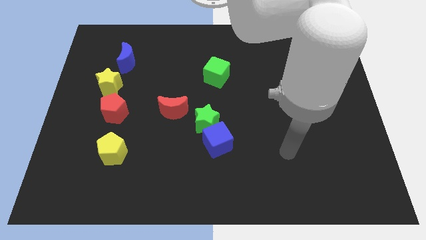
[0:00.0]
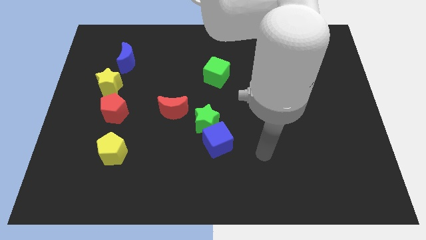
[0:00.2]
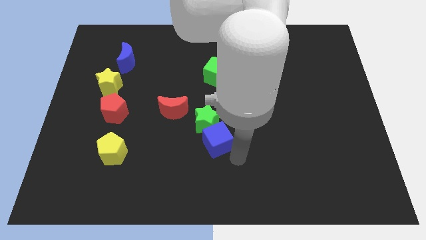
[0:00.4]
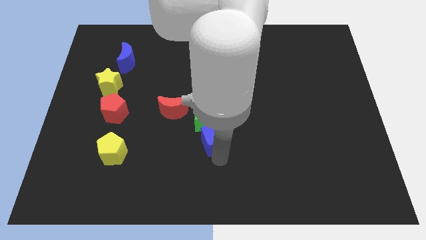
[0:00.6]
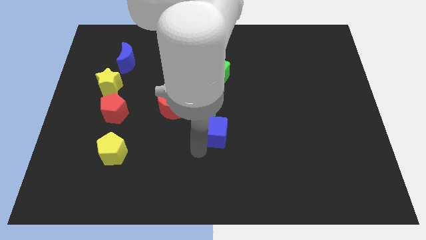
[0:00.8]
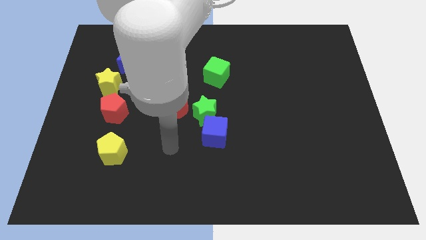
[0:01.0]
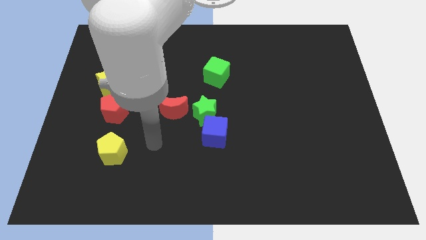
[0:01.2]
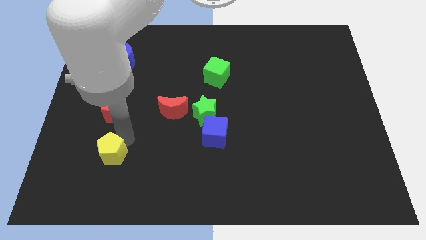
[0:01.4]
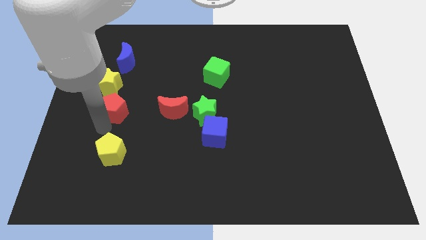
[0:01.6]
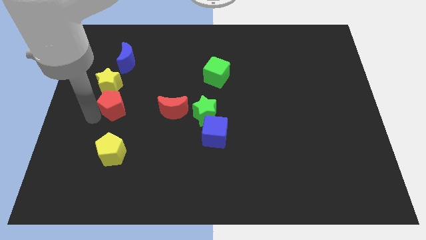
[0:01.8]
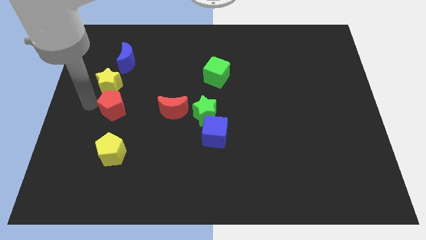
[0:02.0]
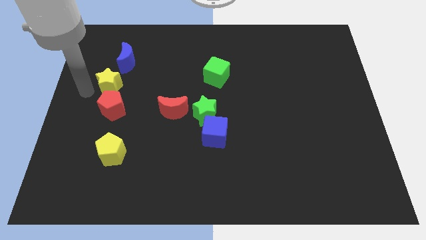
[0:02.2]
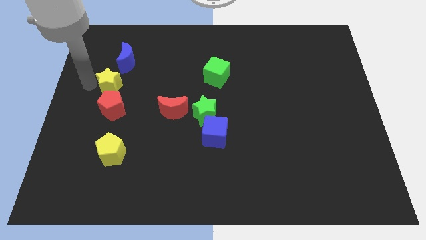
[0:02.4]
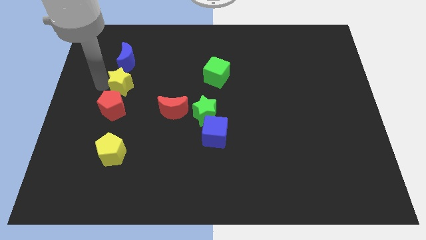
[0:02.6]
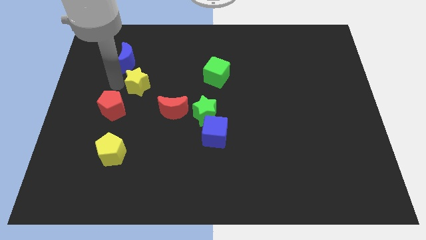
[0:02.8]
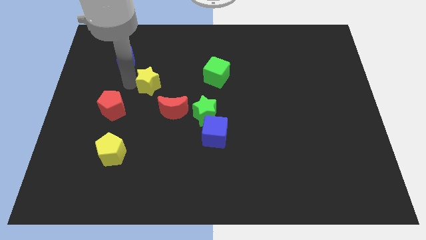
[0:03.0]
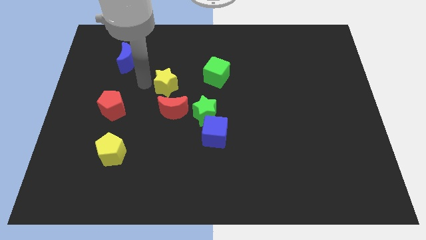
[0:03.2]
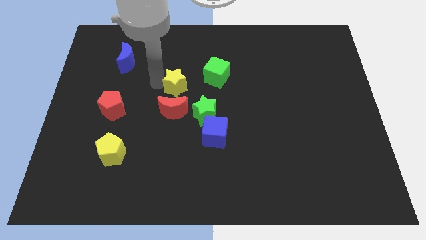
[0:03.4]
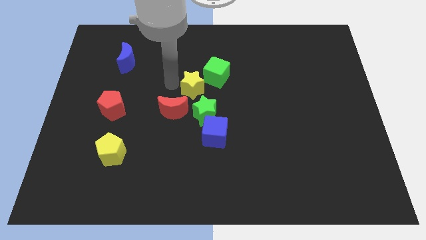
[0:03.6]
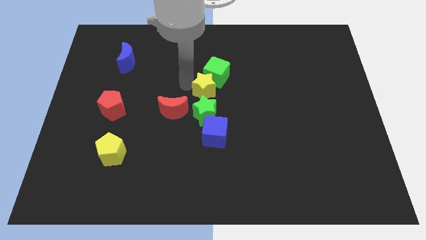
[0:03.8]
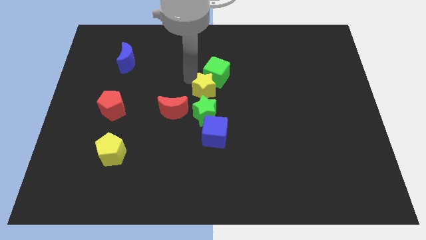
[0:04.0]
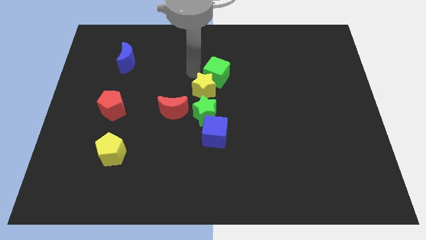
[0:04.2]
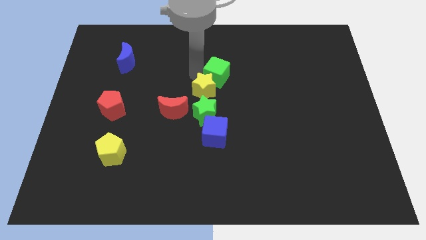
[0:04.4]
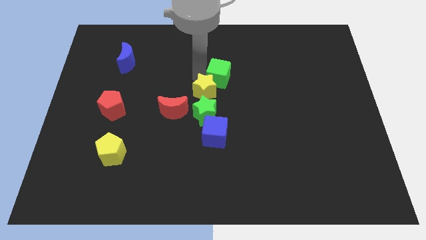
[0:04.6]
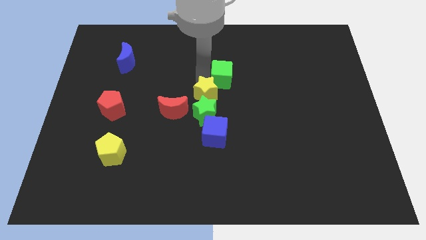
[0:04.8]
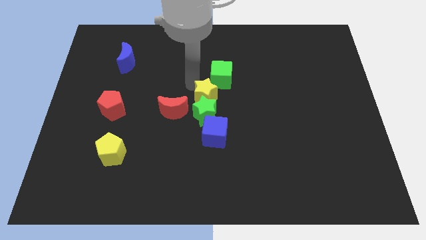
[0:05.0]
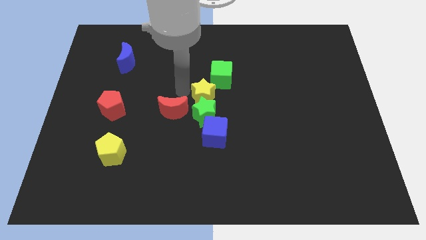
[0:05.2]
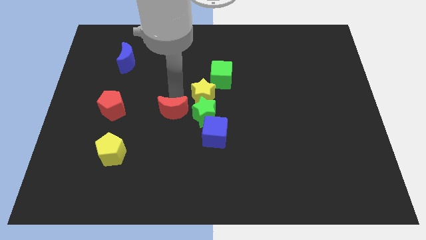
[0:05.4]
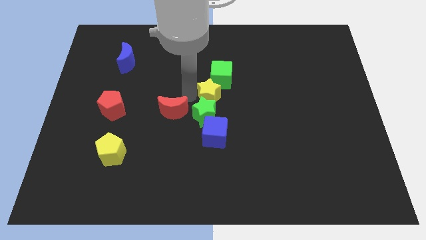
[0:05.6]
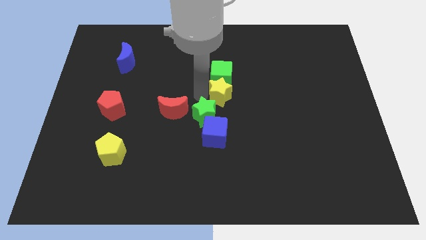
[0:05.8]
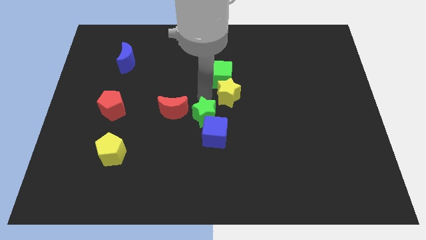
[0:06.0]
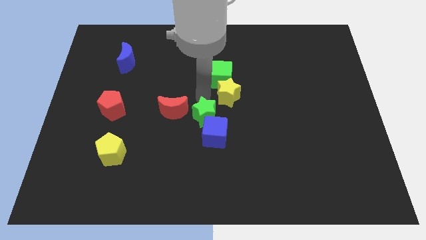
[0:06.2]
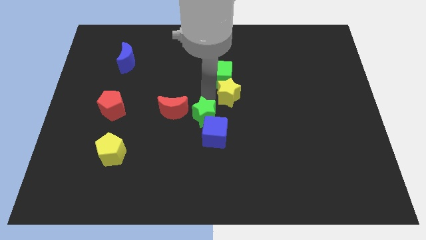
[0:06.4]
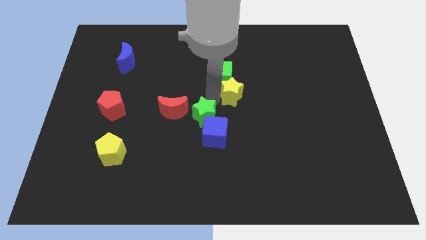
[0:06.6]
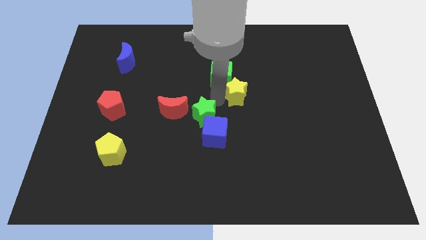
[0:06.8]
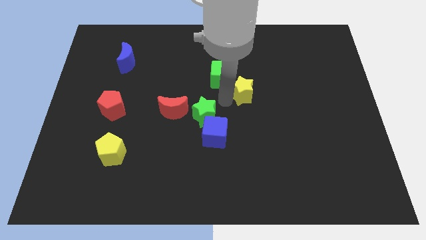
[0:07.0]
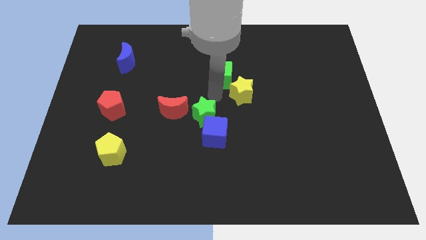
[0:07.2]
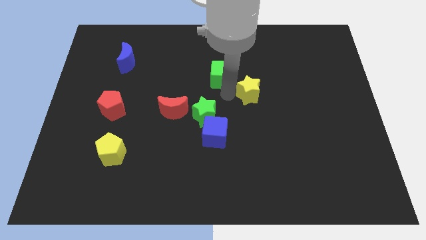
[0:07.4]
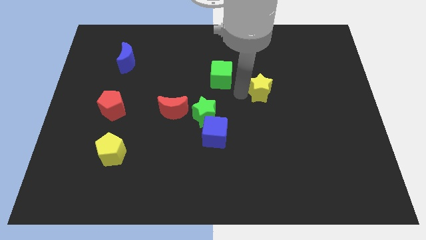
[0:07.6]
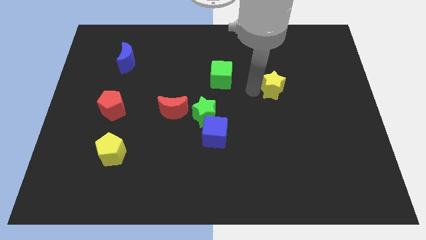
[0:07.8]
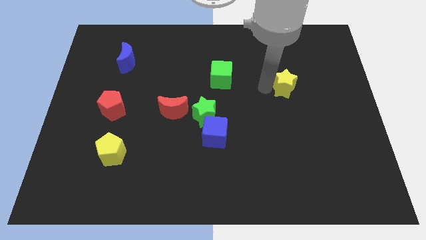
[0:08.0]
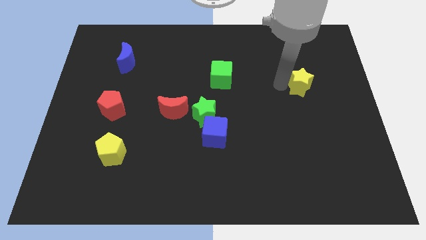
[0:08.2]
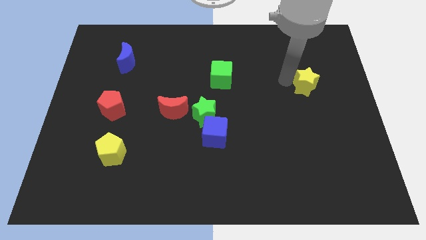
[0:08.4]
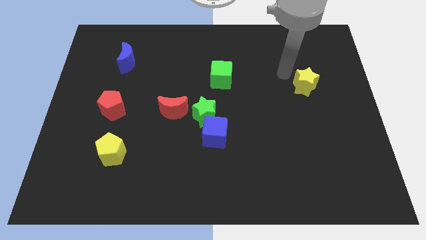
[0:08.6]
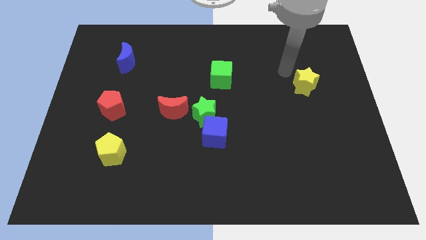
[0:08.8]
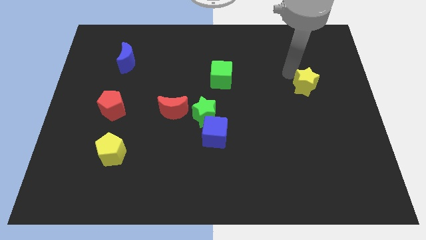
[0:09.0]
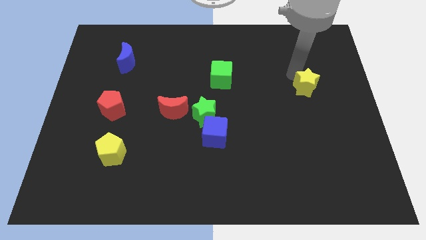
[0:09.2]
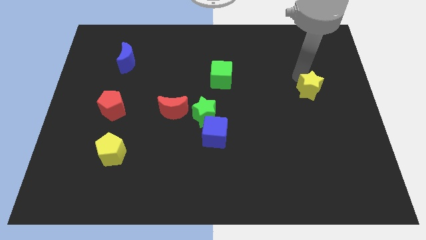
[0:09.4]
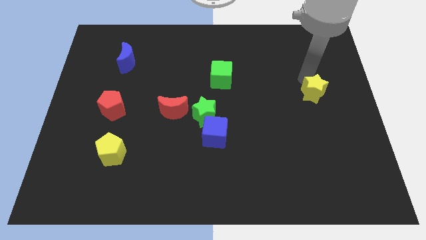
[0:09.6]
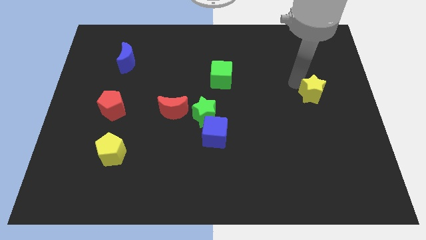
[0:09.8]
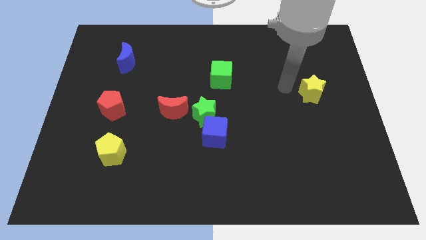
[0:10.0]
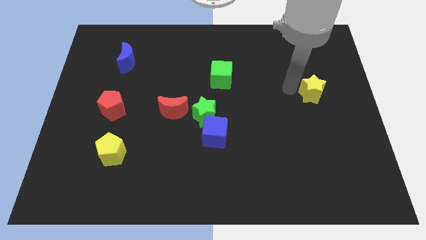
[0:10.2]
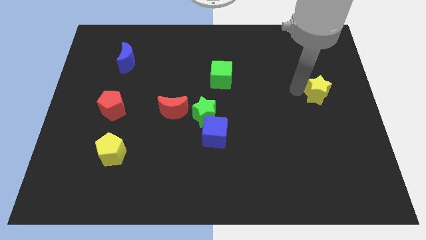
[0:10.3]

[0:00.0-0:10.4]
push the yellow star to the center right

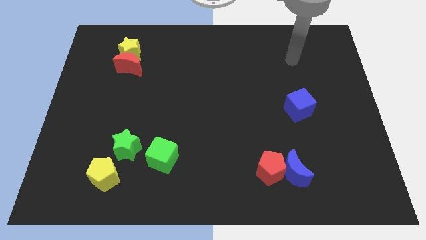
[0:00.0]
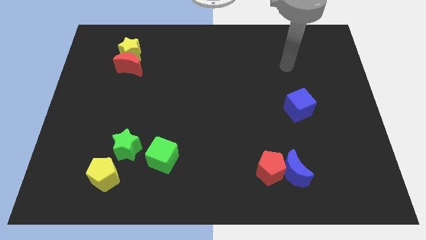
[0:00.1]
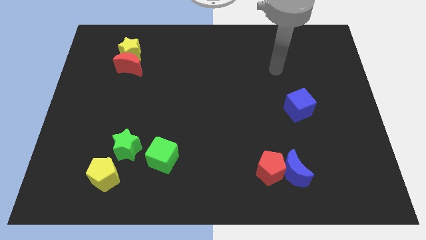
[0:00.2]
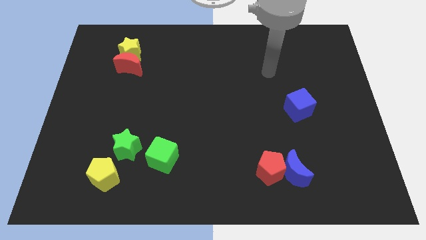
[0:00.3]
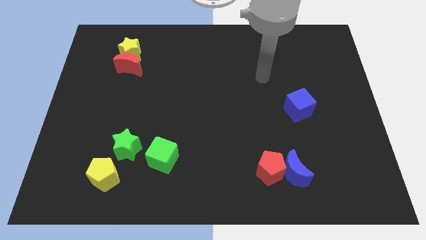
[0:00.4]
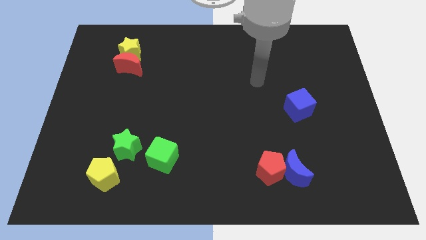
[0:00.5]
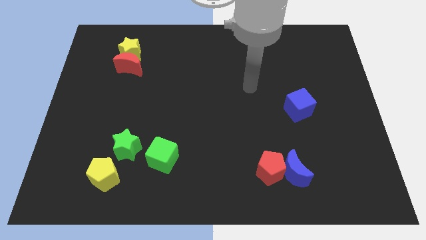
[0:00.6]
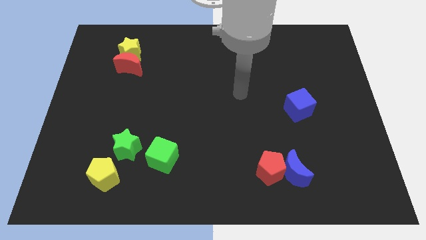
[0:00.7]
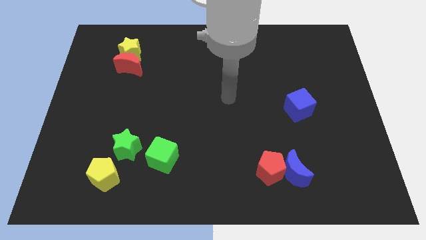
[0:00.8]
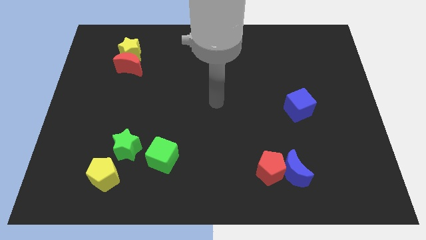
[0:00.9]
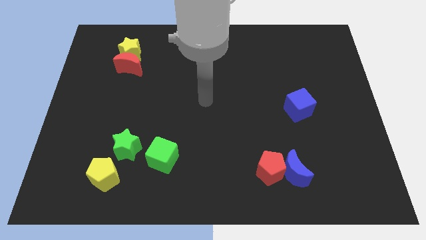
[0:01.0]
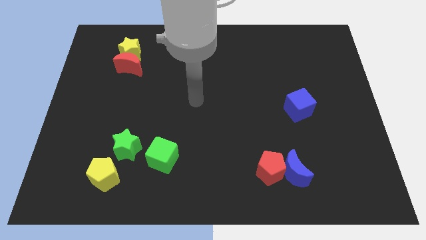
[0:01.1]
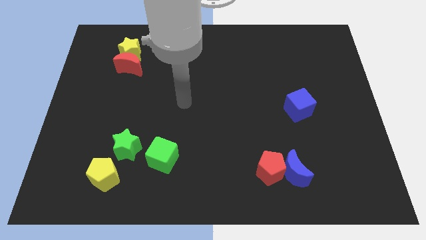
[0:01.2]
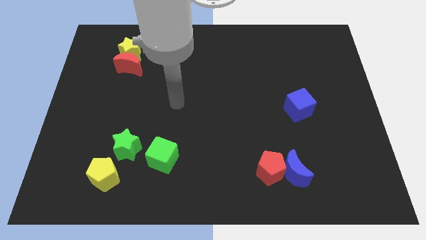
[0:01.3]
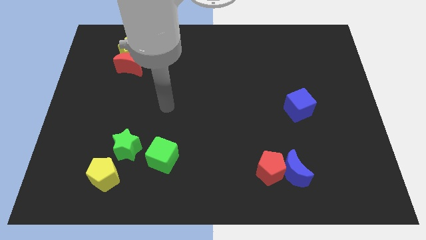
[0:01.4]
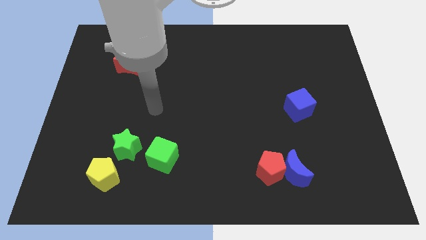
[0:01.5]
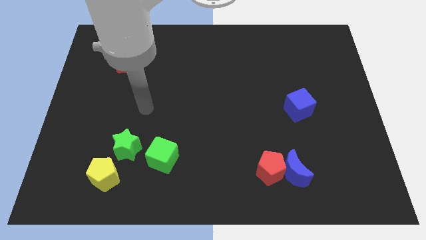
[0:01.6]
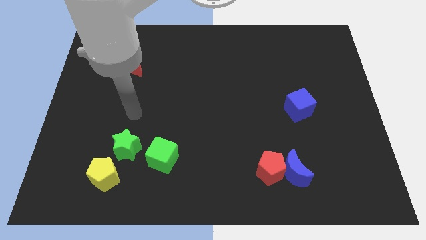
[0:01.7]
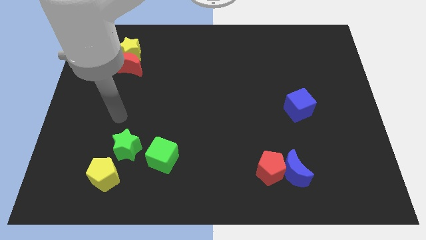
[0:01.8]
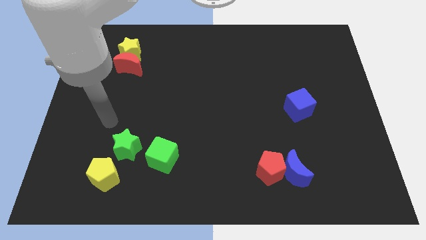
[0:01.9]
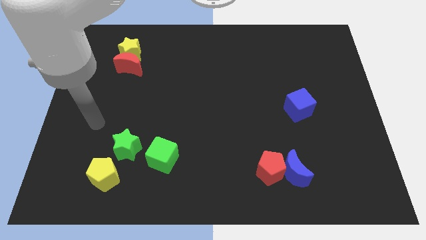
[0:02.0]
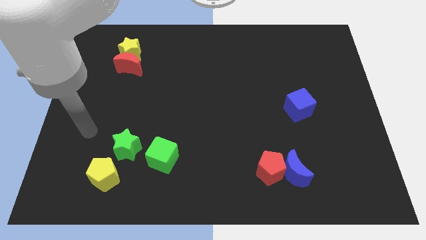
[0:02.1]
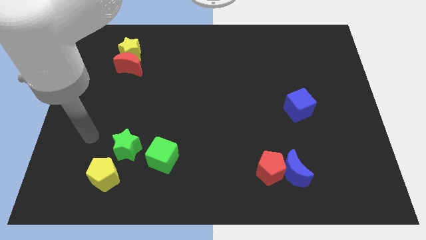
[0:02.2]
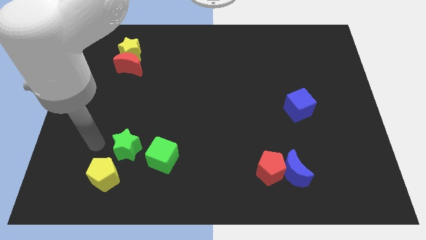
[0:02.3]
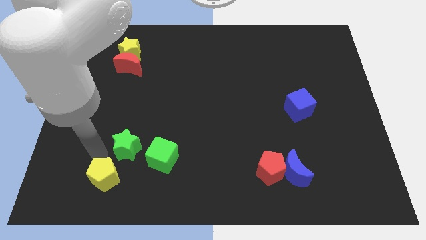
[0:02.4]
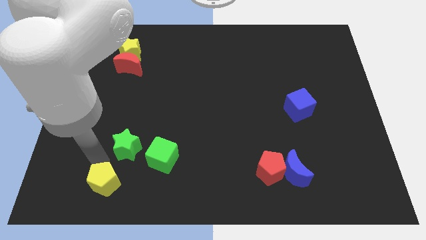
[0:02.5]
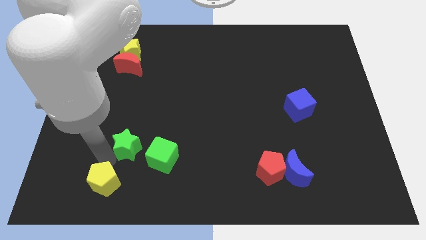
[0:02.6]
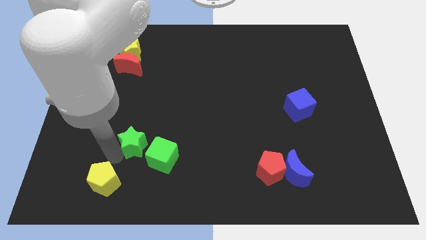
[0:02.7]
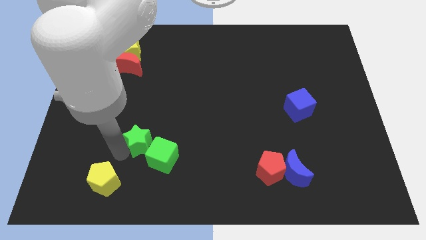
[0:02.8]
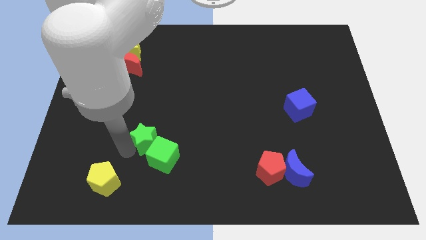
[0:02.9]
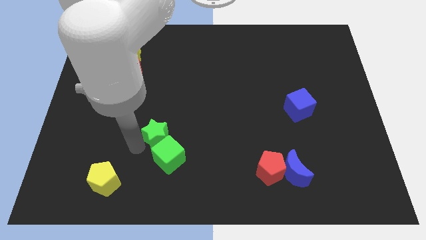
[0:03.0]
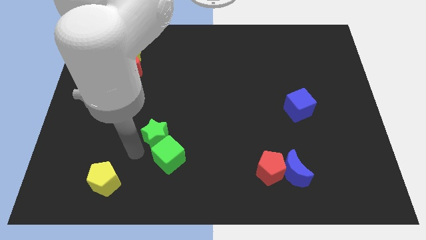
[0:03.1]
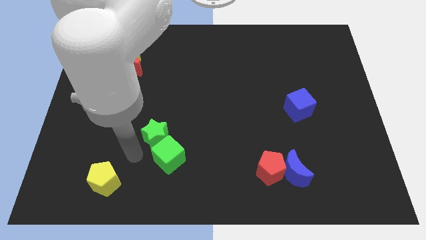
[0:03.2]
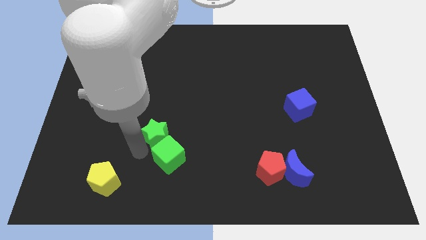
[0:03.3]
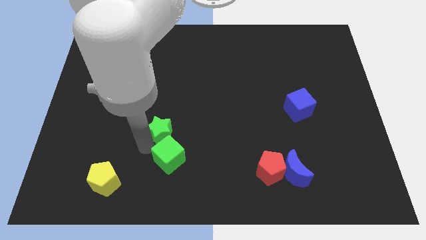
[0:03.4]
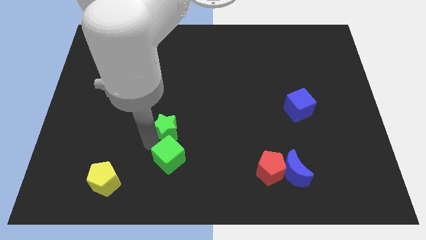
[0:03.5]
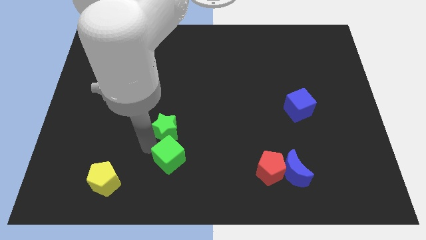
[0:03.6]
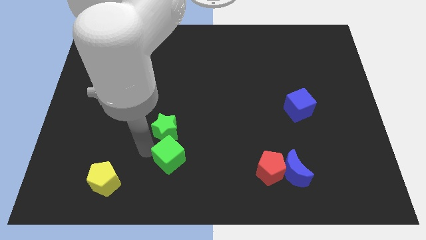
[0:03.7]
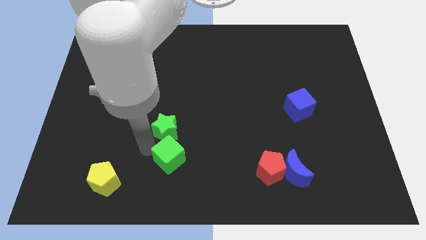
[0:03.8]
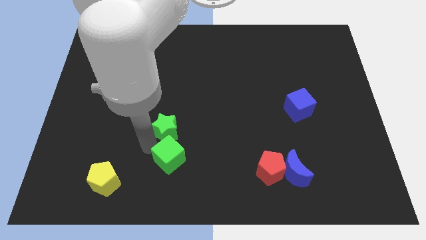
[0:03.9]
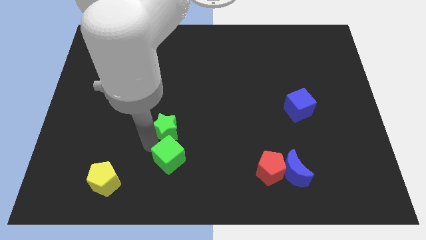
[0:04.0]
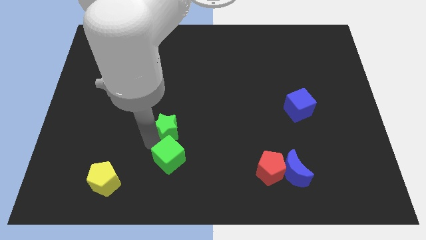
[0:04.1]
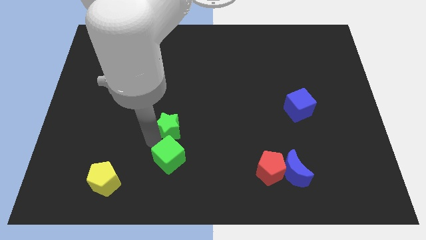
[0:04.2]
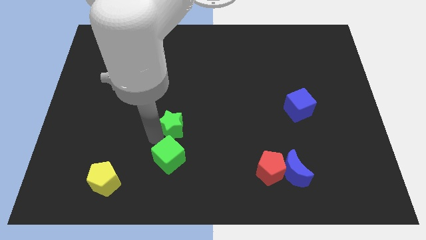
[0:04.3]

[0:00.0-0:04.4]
slide the green star to the middle
